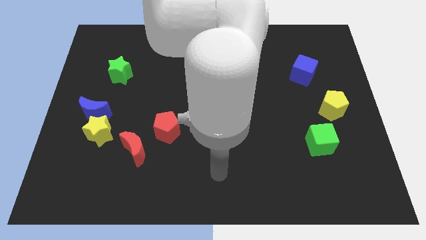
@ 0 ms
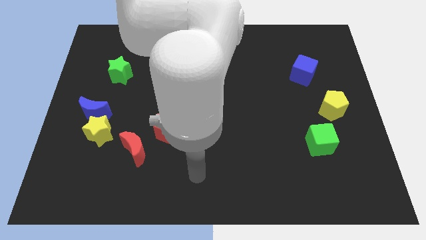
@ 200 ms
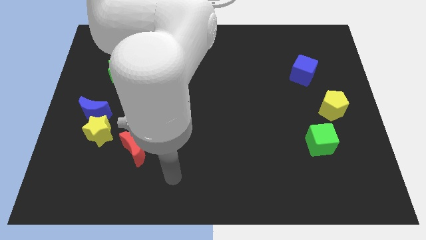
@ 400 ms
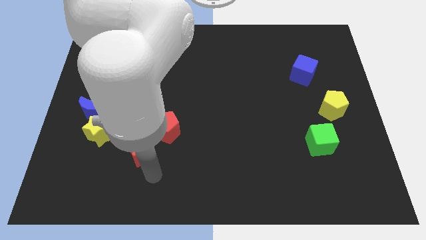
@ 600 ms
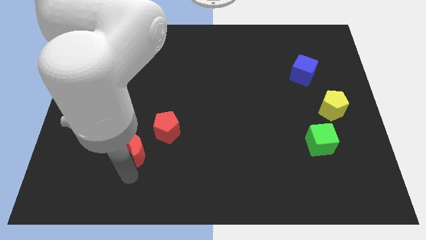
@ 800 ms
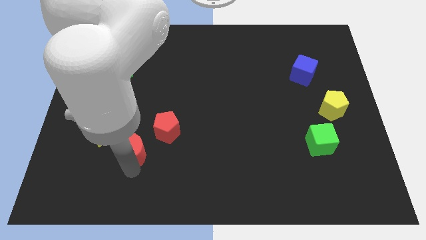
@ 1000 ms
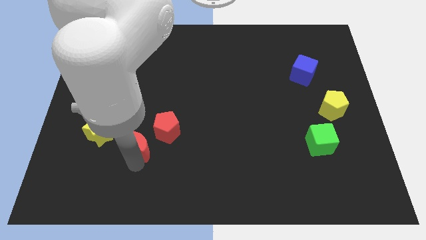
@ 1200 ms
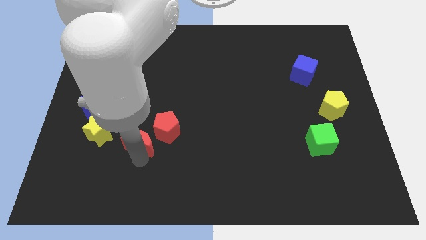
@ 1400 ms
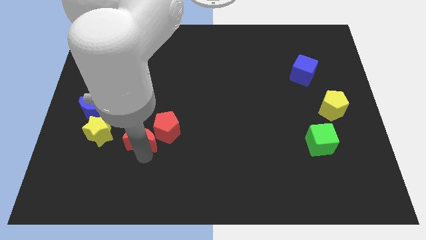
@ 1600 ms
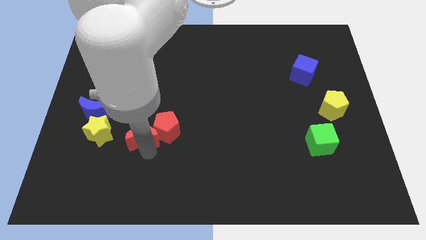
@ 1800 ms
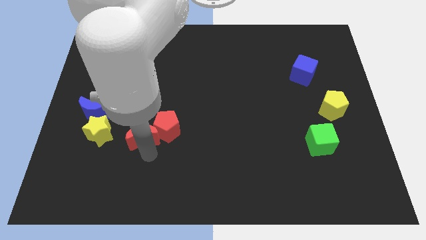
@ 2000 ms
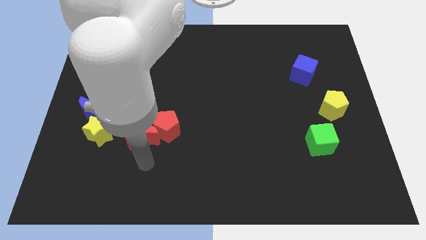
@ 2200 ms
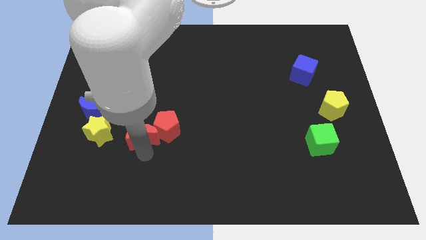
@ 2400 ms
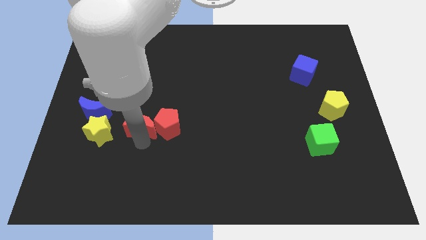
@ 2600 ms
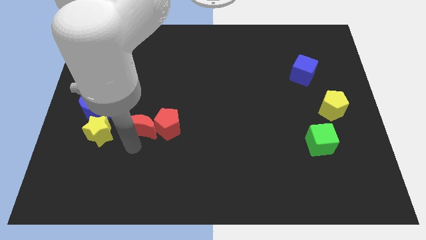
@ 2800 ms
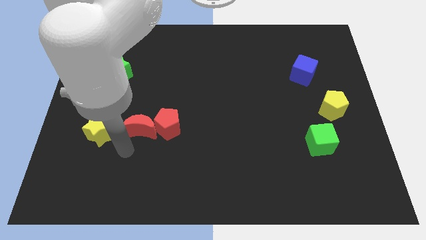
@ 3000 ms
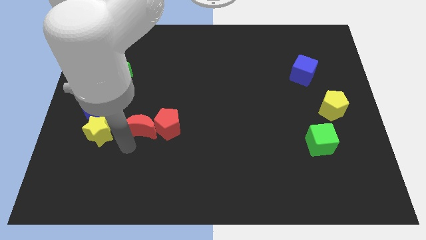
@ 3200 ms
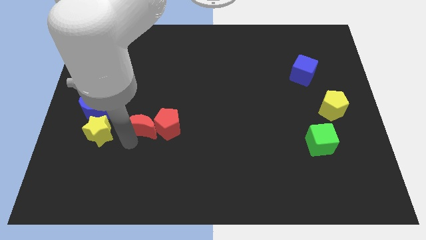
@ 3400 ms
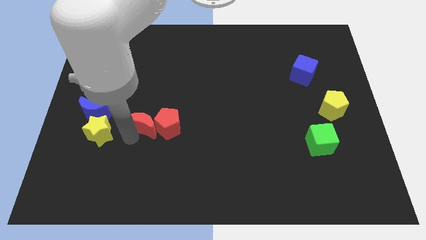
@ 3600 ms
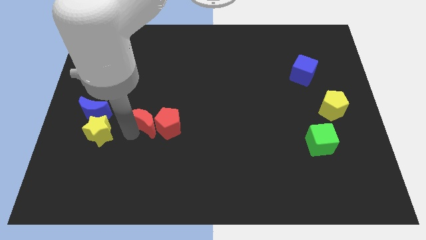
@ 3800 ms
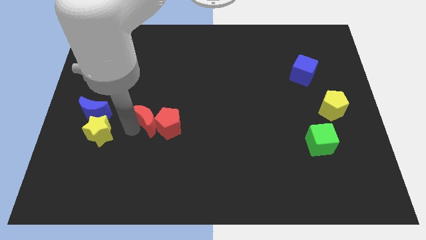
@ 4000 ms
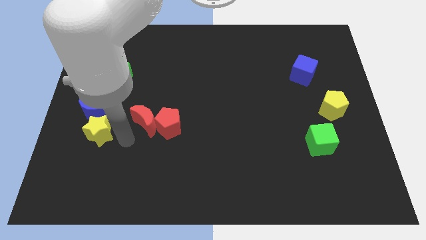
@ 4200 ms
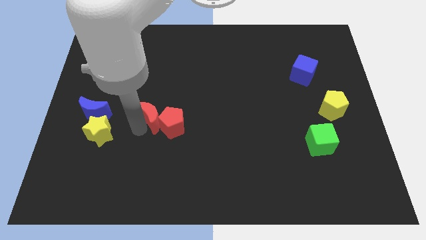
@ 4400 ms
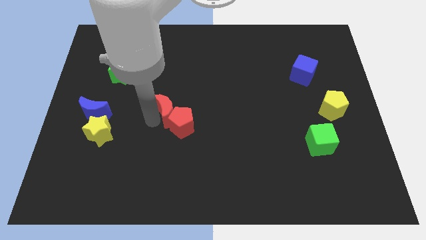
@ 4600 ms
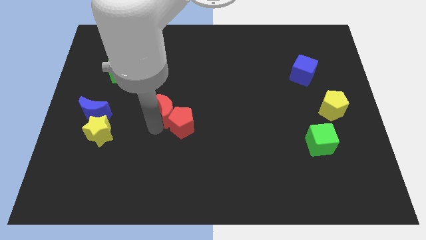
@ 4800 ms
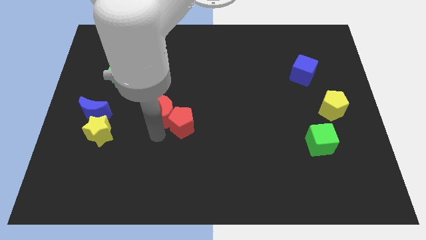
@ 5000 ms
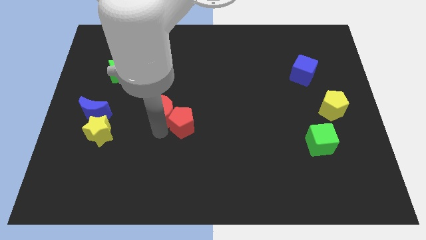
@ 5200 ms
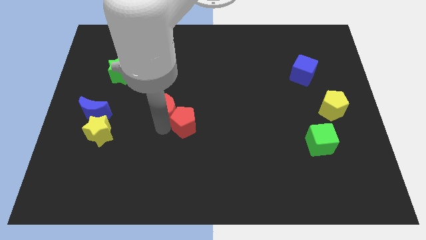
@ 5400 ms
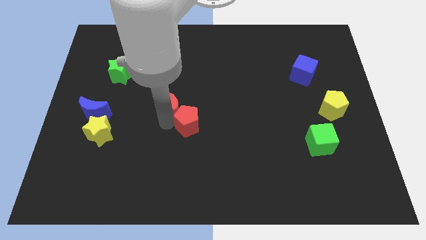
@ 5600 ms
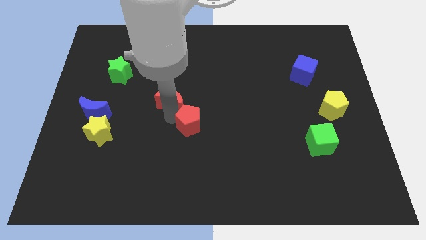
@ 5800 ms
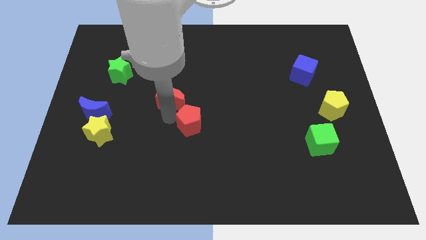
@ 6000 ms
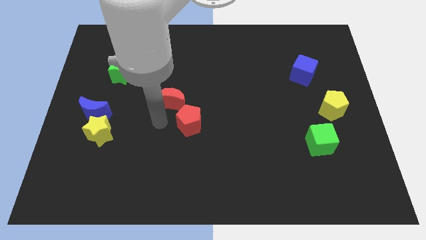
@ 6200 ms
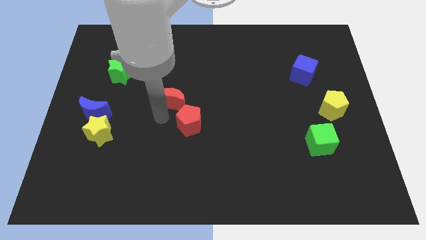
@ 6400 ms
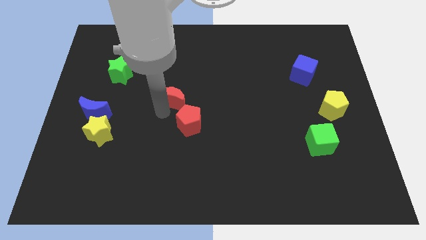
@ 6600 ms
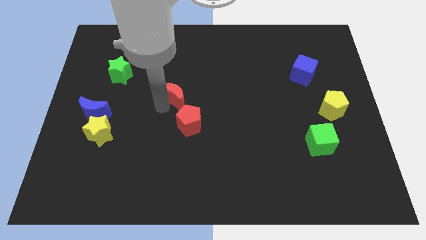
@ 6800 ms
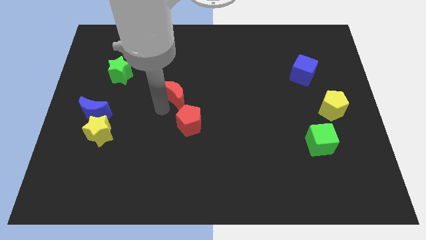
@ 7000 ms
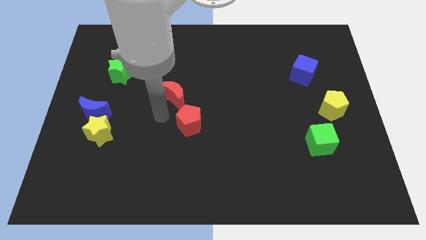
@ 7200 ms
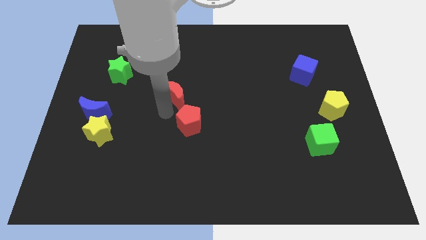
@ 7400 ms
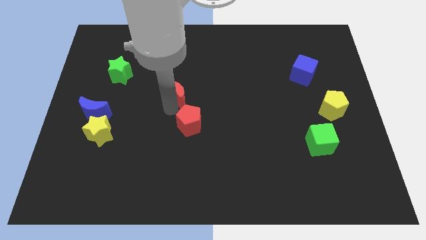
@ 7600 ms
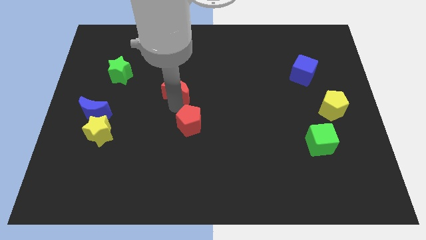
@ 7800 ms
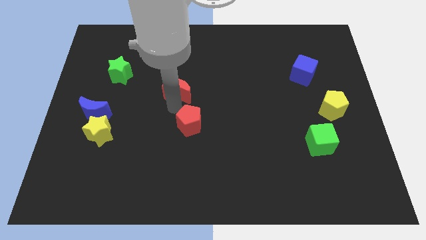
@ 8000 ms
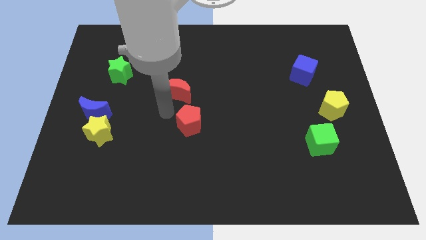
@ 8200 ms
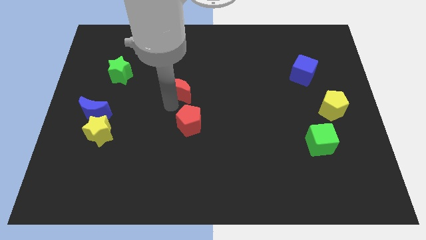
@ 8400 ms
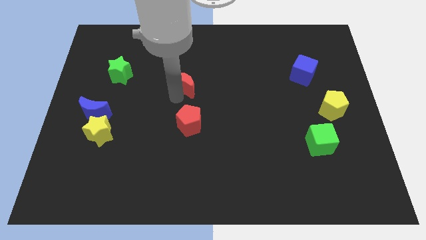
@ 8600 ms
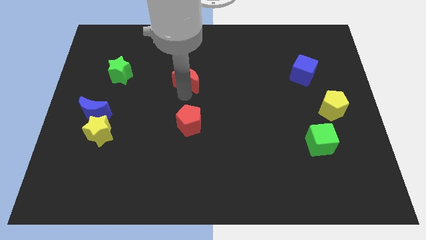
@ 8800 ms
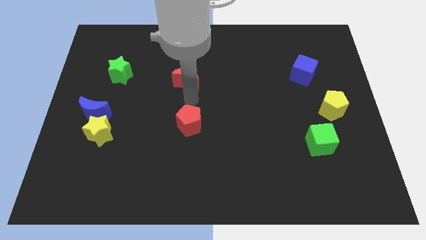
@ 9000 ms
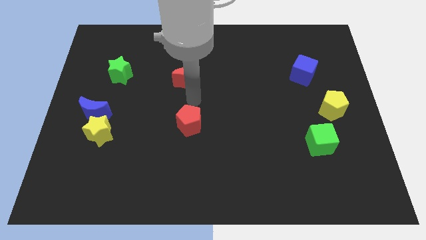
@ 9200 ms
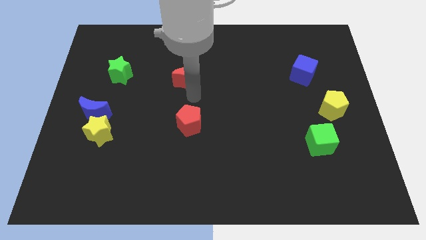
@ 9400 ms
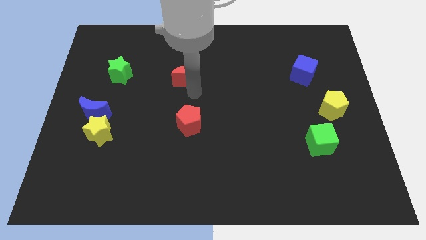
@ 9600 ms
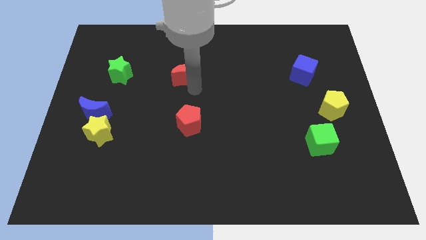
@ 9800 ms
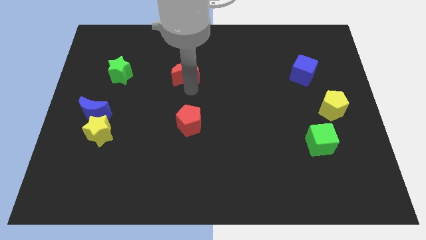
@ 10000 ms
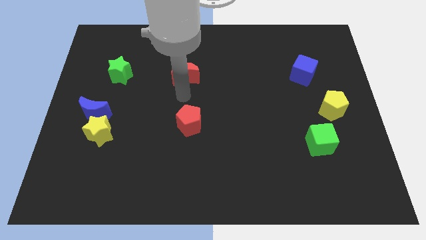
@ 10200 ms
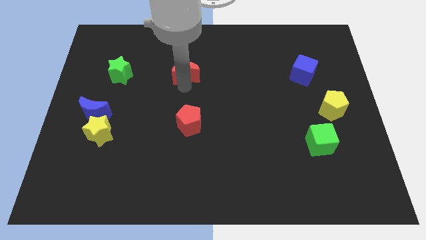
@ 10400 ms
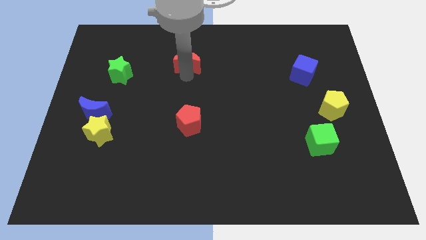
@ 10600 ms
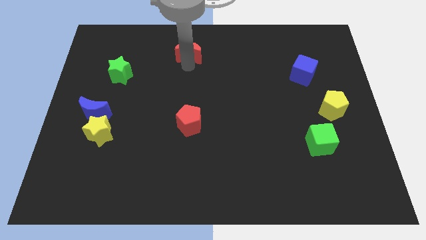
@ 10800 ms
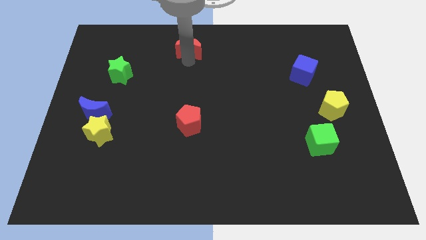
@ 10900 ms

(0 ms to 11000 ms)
push the red moon to the top

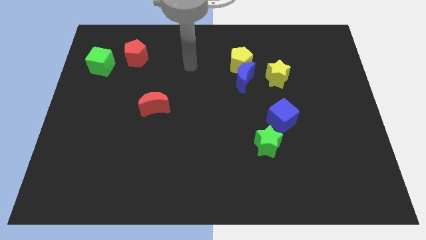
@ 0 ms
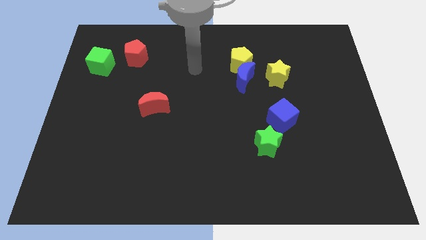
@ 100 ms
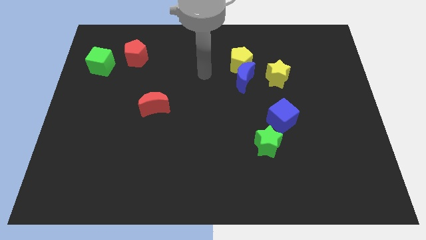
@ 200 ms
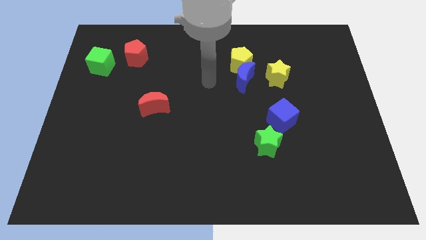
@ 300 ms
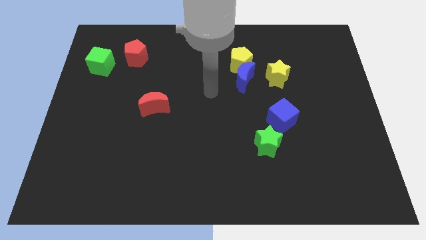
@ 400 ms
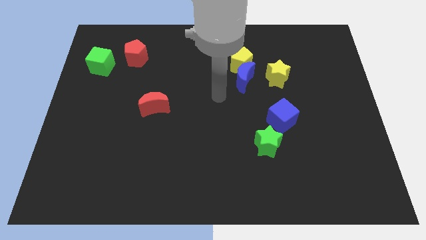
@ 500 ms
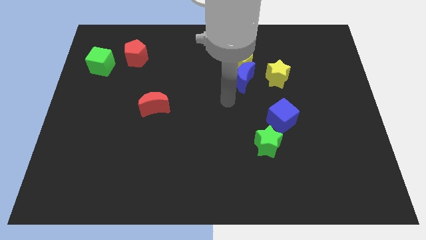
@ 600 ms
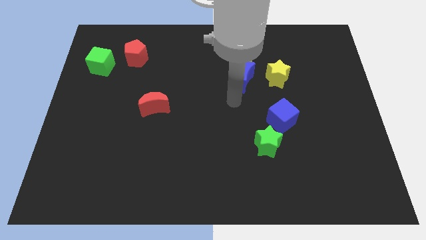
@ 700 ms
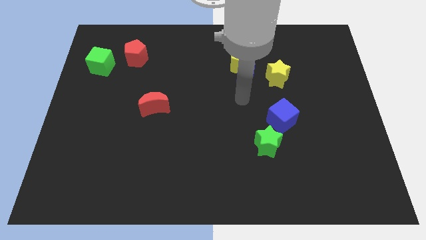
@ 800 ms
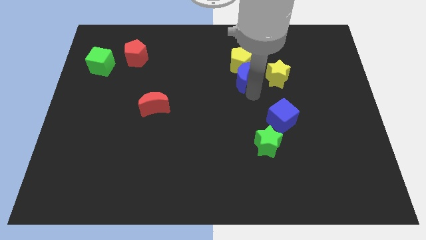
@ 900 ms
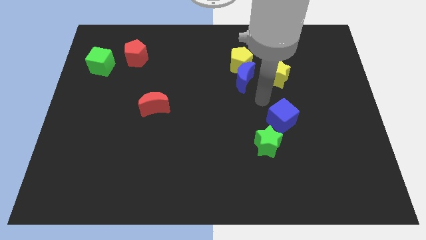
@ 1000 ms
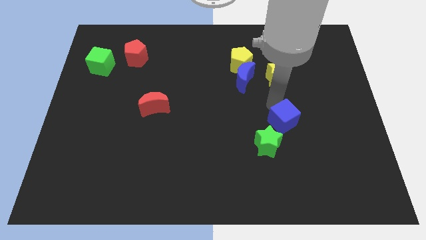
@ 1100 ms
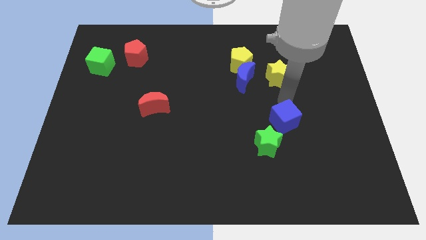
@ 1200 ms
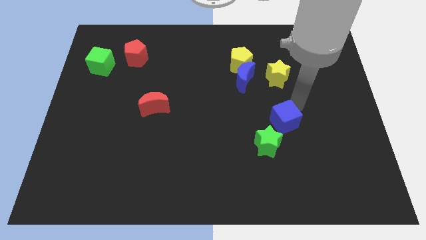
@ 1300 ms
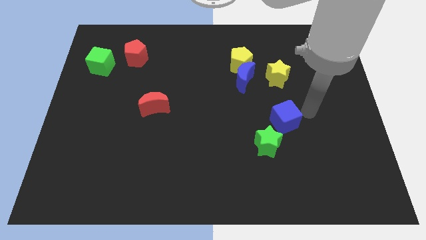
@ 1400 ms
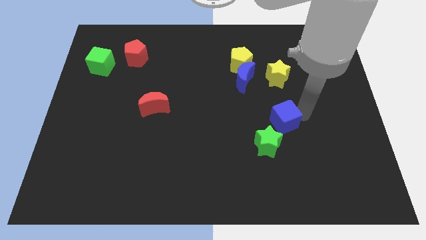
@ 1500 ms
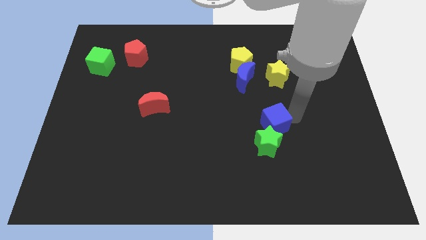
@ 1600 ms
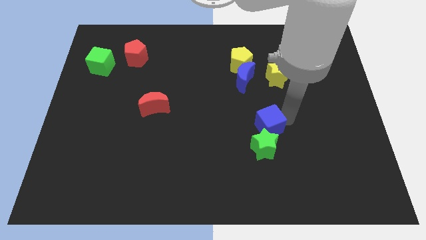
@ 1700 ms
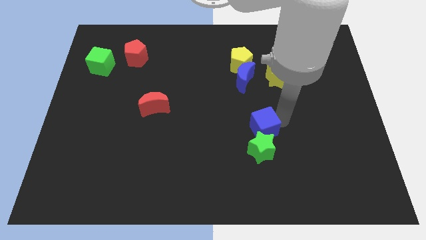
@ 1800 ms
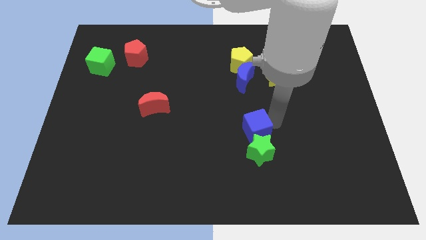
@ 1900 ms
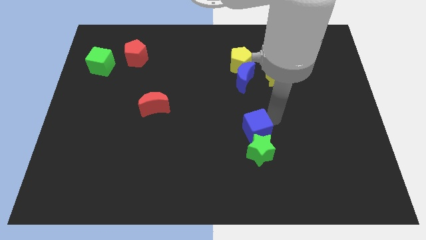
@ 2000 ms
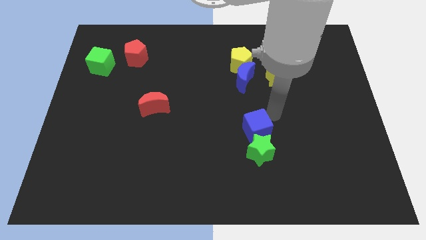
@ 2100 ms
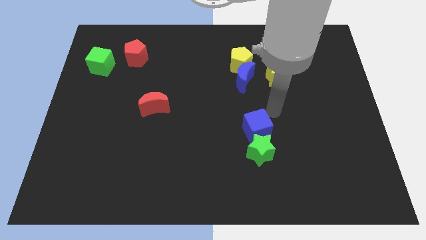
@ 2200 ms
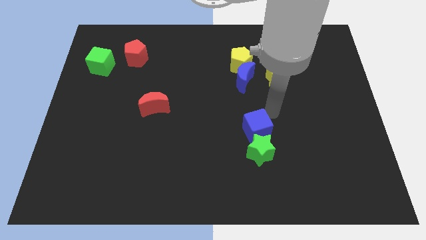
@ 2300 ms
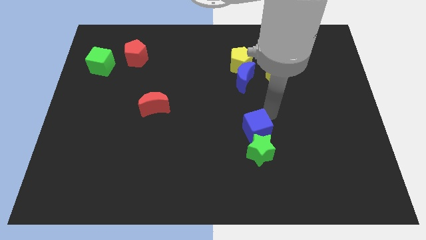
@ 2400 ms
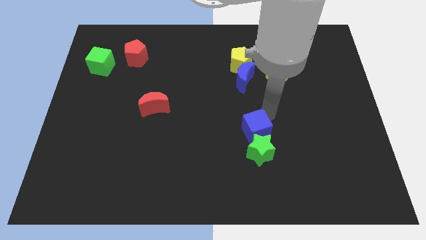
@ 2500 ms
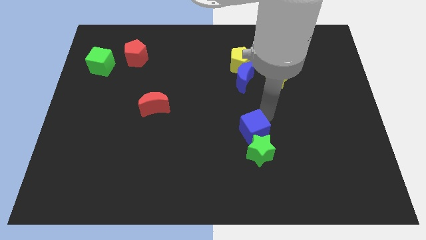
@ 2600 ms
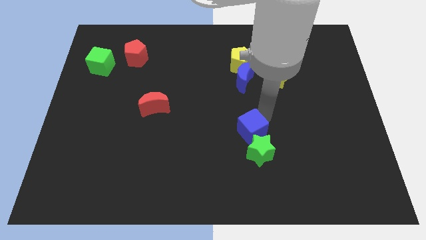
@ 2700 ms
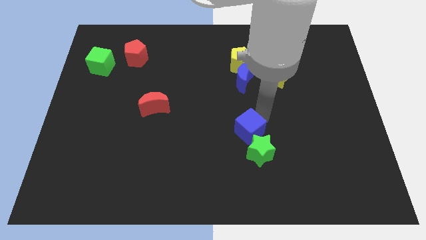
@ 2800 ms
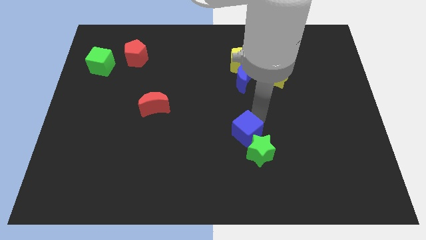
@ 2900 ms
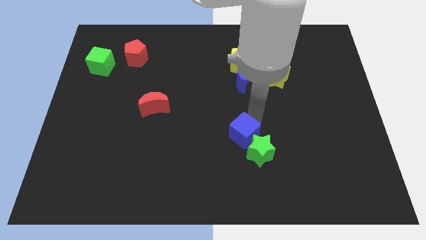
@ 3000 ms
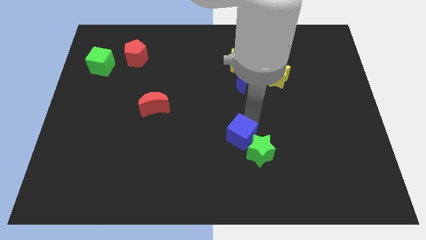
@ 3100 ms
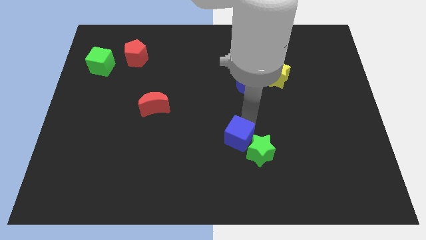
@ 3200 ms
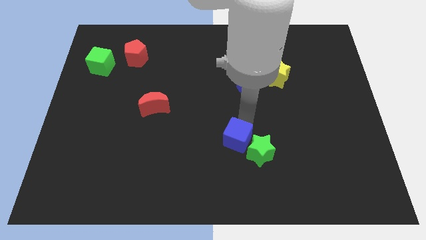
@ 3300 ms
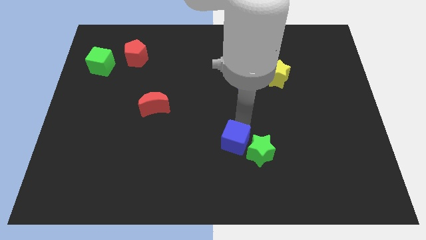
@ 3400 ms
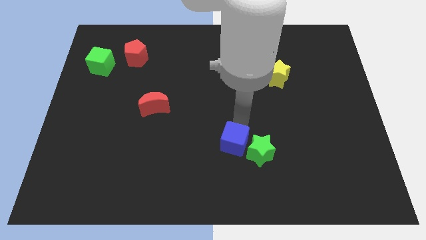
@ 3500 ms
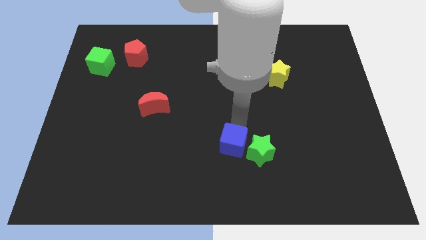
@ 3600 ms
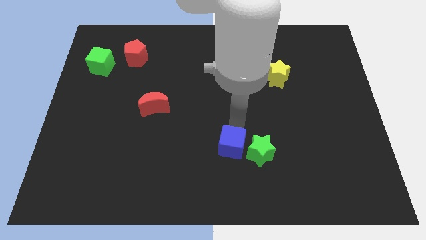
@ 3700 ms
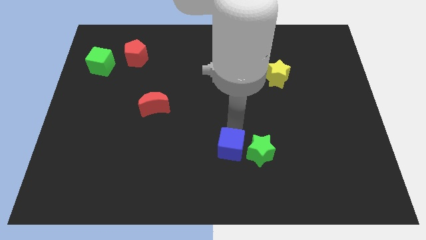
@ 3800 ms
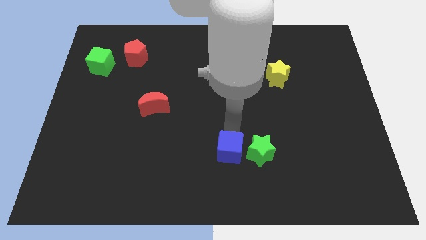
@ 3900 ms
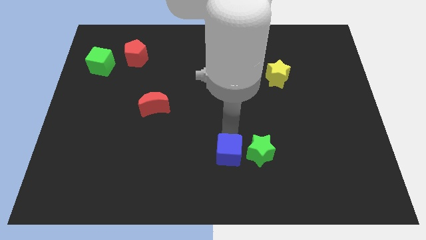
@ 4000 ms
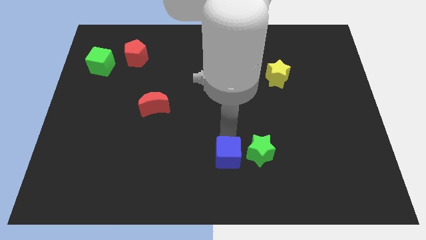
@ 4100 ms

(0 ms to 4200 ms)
put the blue cube to the bottom side
